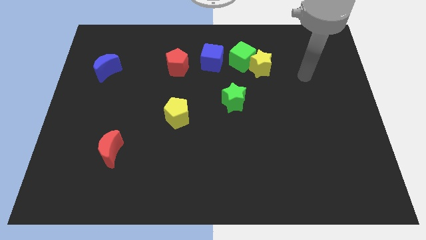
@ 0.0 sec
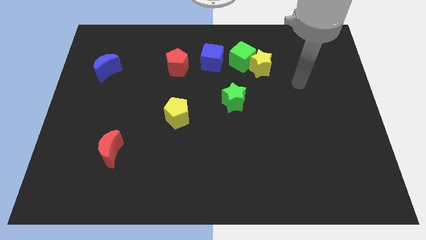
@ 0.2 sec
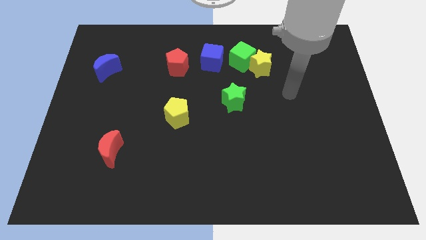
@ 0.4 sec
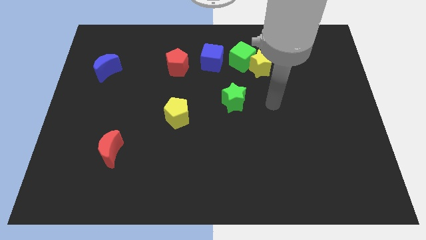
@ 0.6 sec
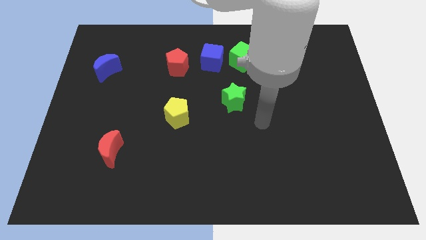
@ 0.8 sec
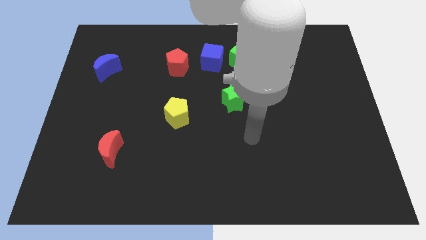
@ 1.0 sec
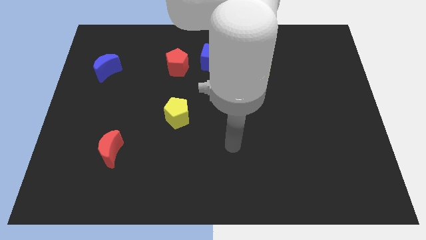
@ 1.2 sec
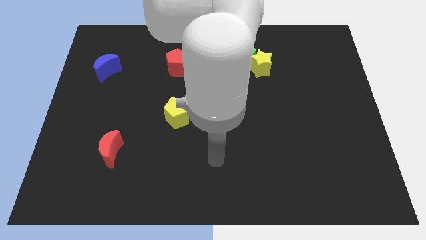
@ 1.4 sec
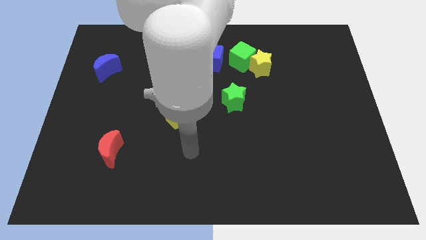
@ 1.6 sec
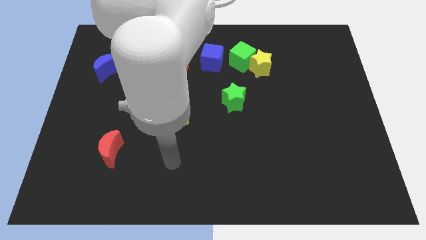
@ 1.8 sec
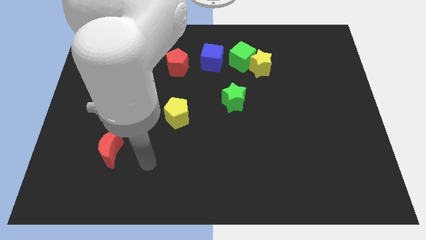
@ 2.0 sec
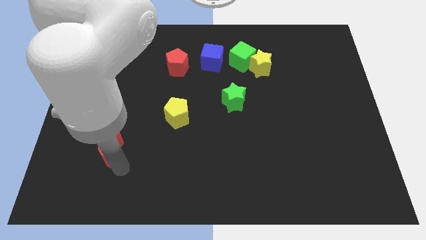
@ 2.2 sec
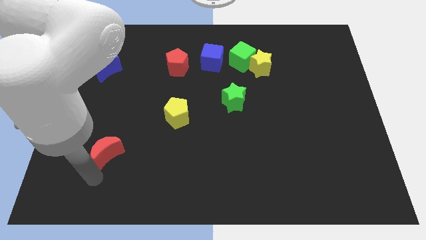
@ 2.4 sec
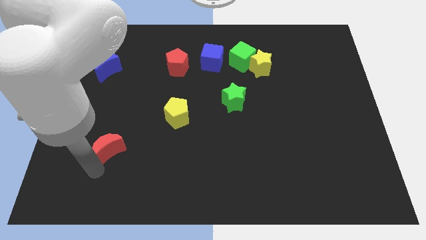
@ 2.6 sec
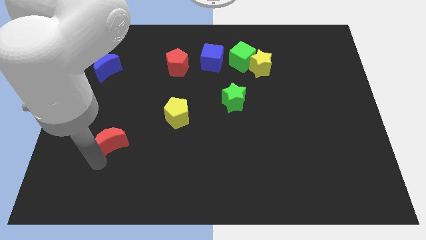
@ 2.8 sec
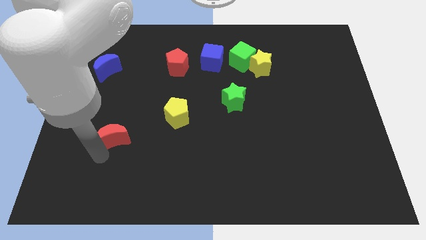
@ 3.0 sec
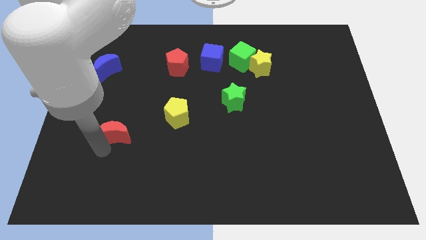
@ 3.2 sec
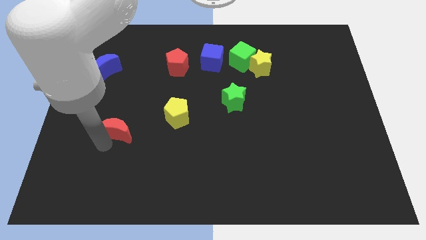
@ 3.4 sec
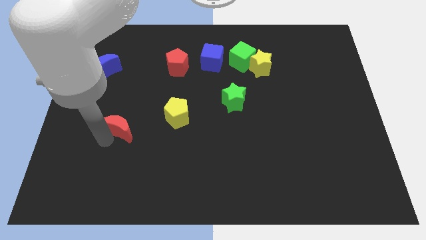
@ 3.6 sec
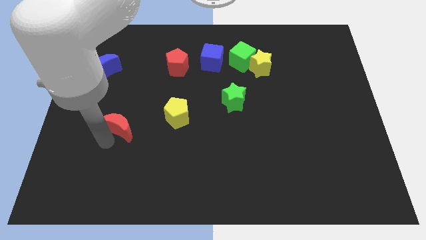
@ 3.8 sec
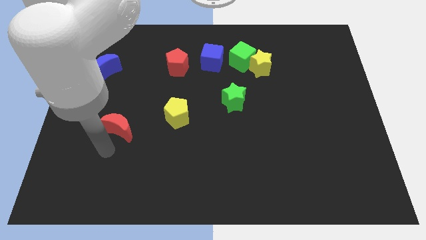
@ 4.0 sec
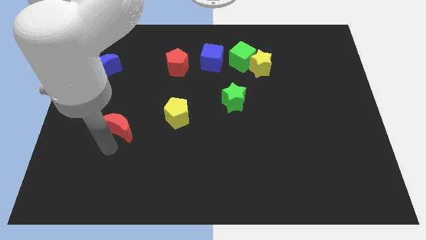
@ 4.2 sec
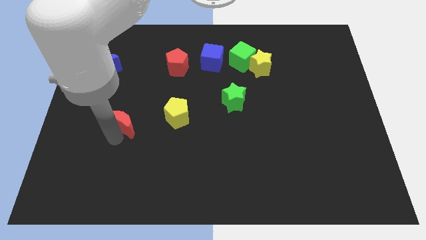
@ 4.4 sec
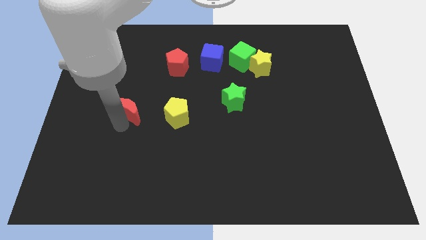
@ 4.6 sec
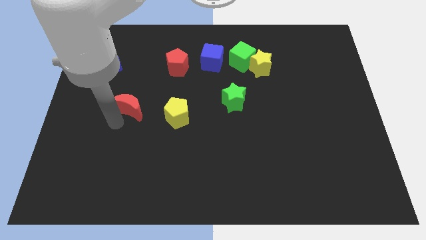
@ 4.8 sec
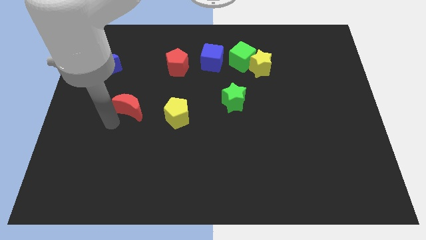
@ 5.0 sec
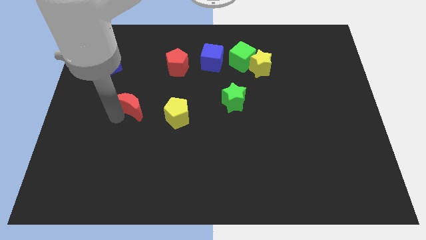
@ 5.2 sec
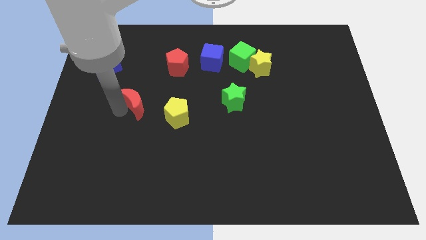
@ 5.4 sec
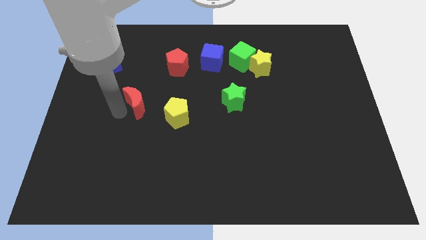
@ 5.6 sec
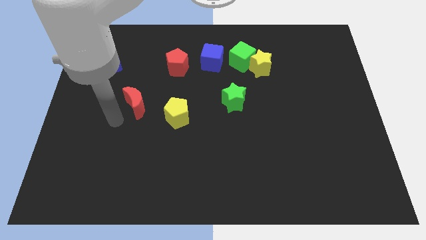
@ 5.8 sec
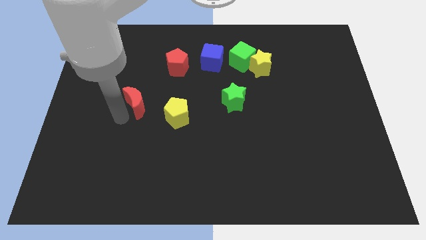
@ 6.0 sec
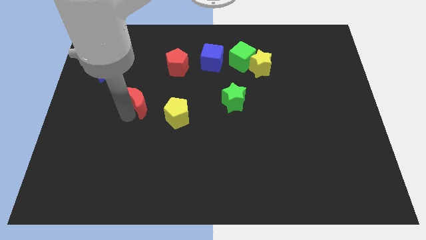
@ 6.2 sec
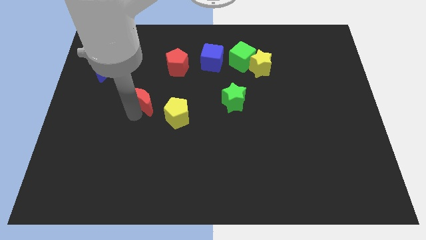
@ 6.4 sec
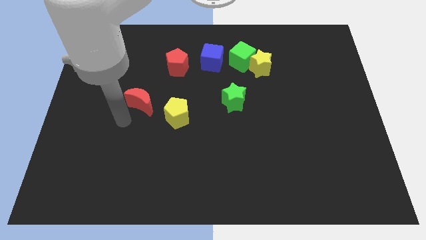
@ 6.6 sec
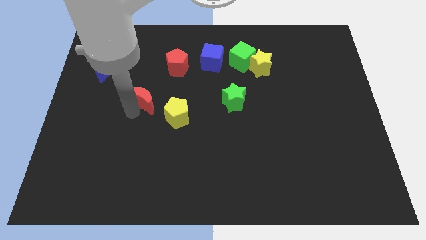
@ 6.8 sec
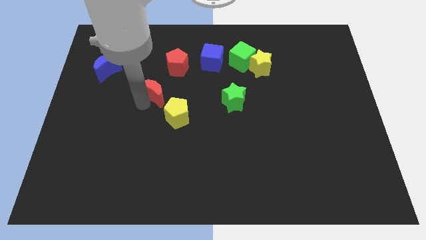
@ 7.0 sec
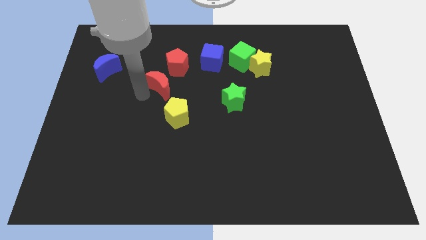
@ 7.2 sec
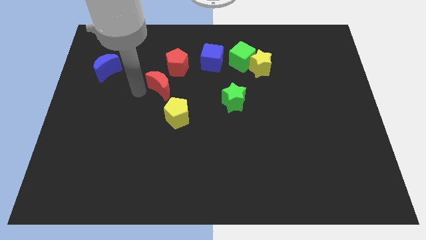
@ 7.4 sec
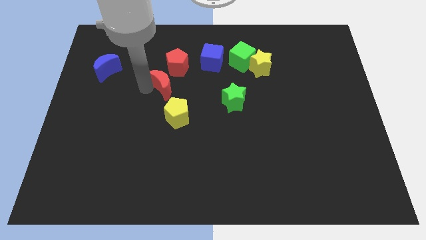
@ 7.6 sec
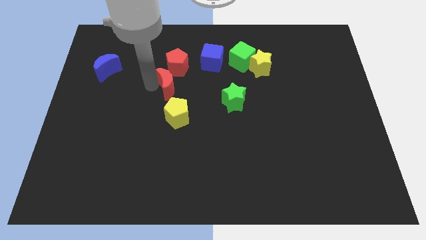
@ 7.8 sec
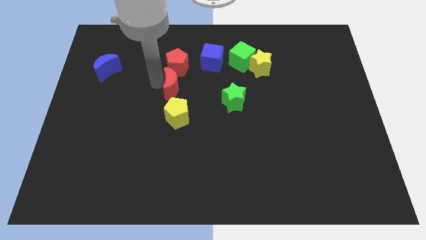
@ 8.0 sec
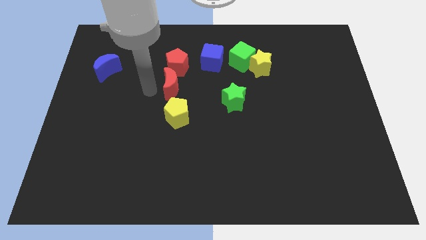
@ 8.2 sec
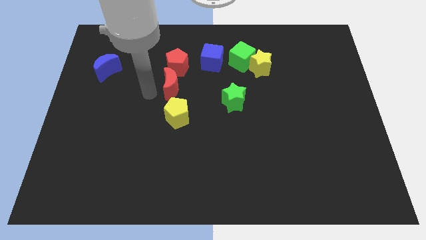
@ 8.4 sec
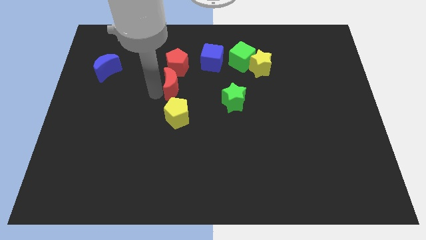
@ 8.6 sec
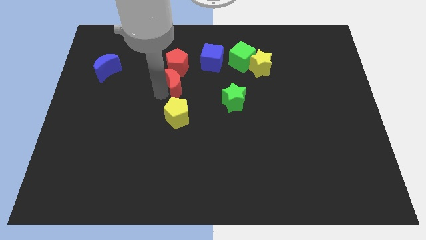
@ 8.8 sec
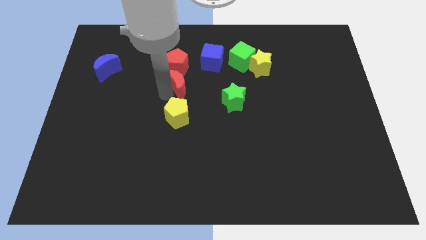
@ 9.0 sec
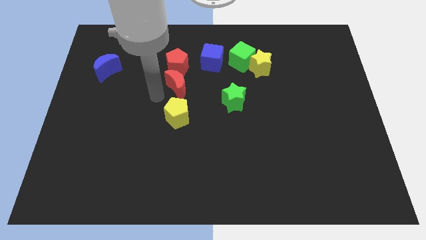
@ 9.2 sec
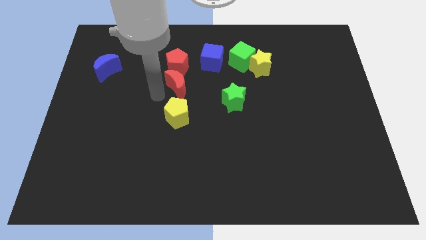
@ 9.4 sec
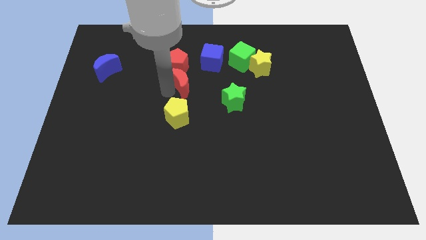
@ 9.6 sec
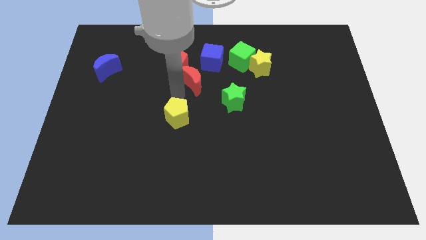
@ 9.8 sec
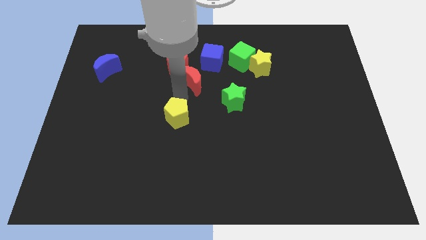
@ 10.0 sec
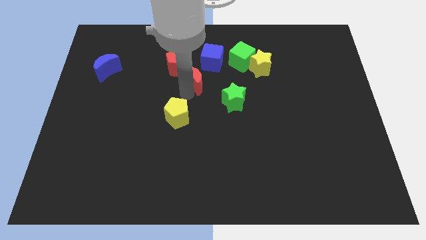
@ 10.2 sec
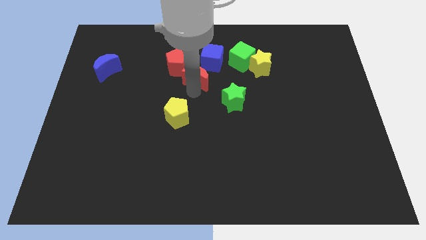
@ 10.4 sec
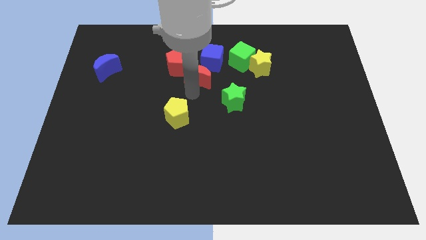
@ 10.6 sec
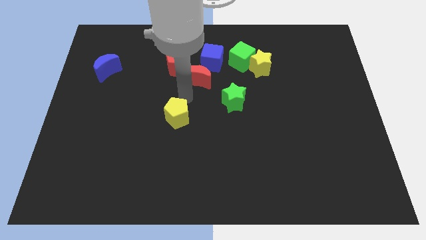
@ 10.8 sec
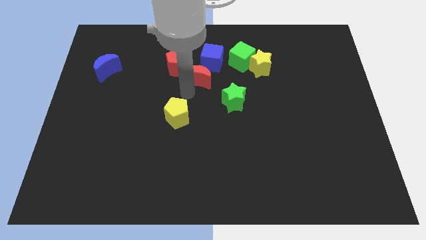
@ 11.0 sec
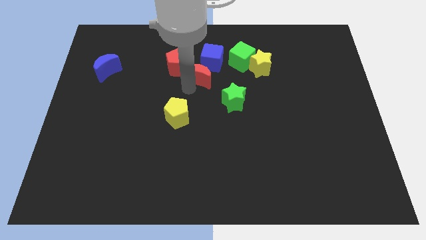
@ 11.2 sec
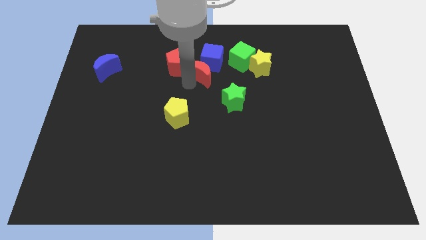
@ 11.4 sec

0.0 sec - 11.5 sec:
slide the red moon towards the blue cube

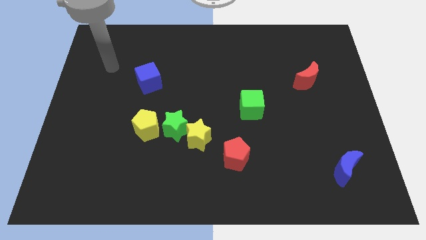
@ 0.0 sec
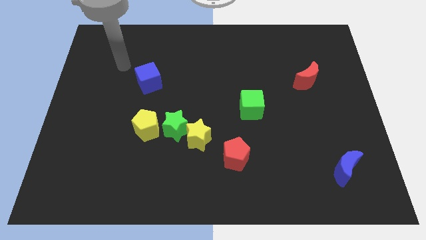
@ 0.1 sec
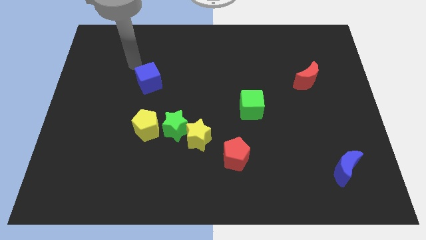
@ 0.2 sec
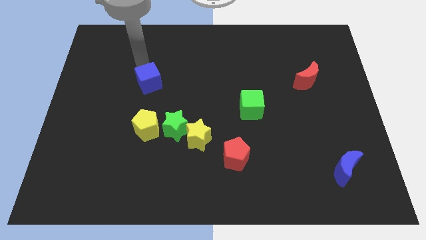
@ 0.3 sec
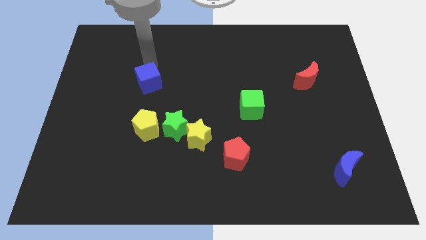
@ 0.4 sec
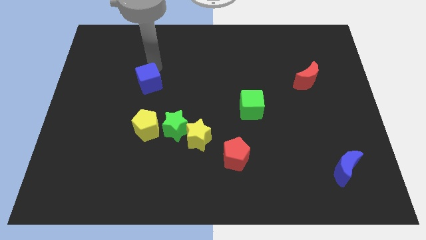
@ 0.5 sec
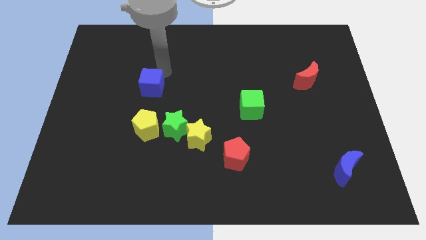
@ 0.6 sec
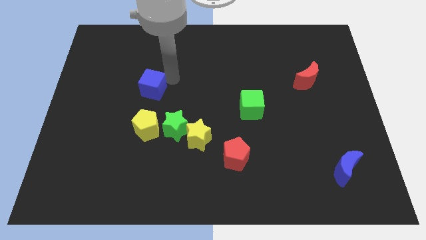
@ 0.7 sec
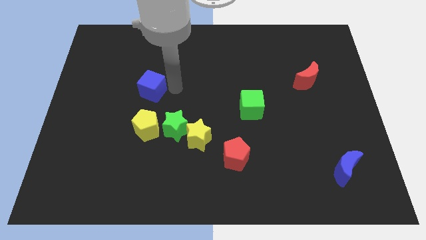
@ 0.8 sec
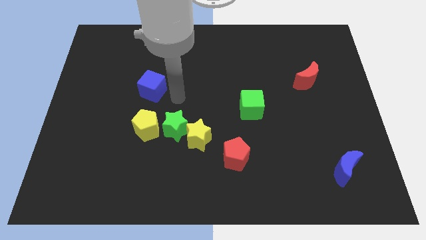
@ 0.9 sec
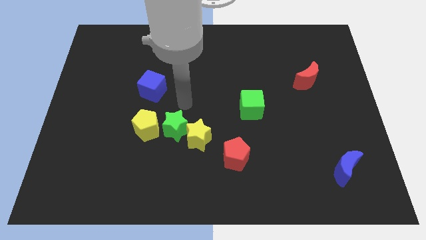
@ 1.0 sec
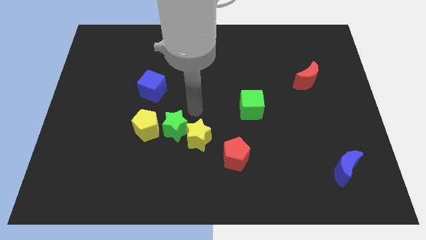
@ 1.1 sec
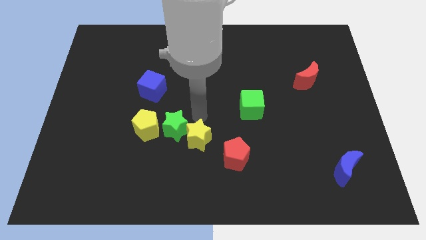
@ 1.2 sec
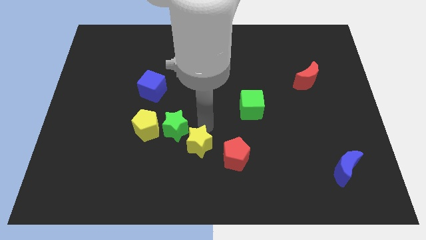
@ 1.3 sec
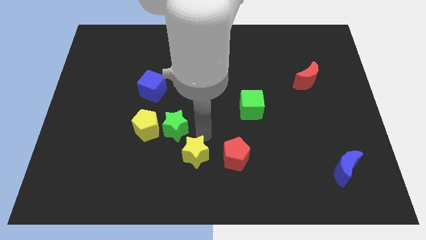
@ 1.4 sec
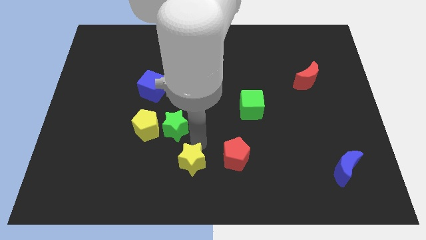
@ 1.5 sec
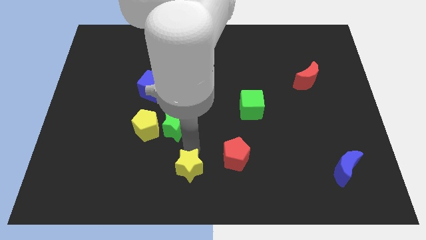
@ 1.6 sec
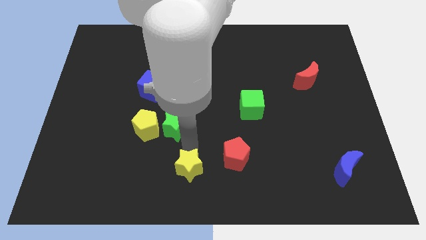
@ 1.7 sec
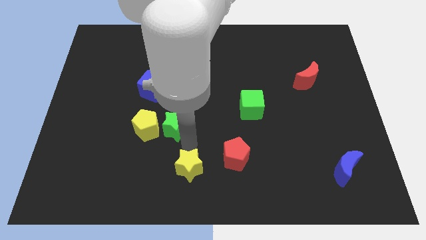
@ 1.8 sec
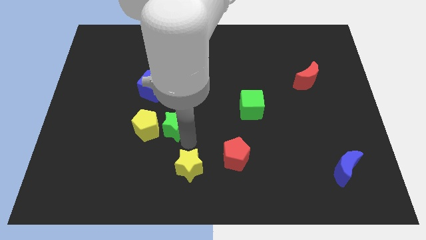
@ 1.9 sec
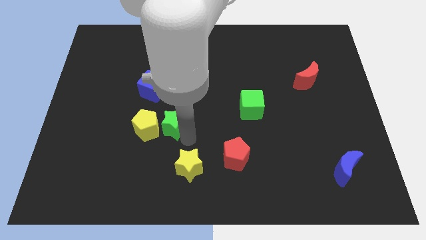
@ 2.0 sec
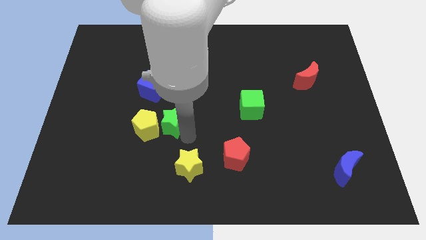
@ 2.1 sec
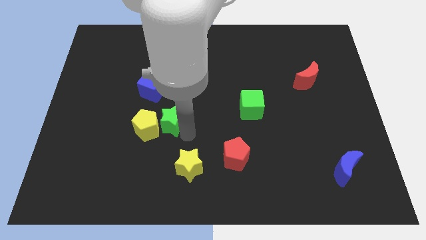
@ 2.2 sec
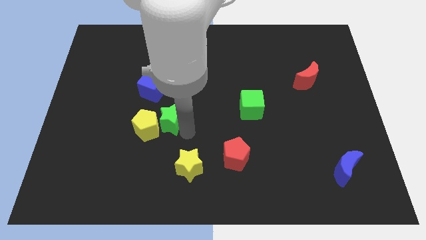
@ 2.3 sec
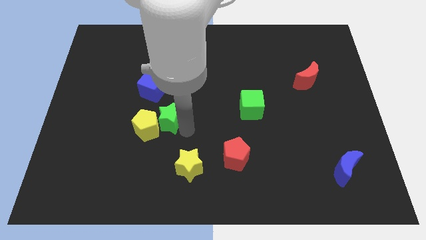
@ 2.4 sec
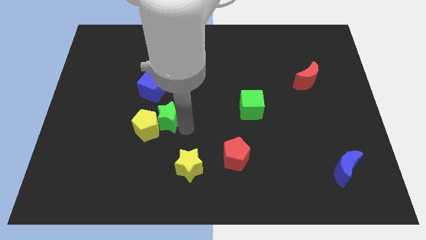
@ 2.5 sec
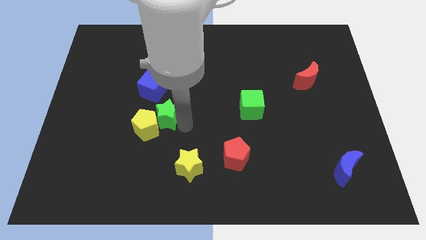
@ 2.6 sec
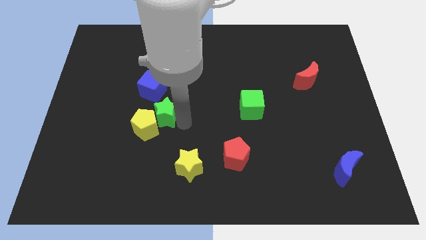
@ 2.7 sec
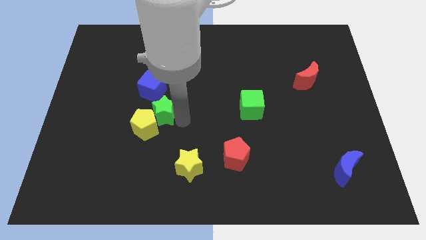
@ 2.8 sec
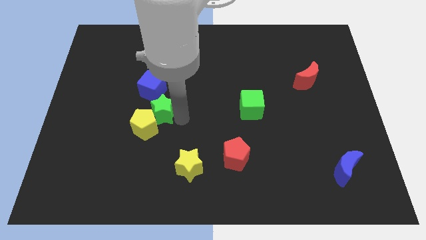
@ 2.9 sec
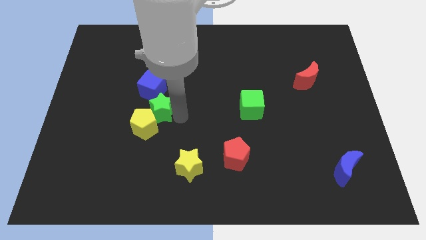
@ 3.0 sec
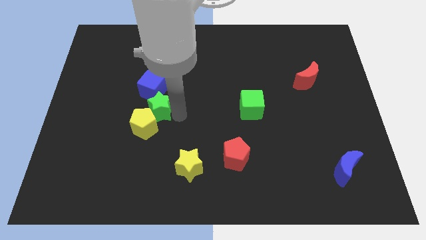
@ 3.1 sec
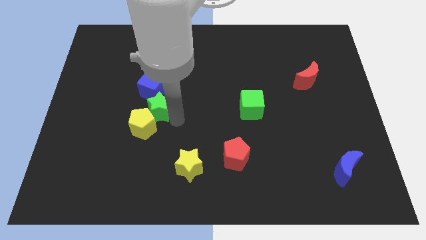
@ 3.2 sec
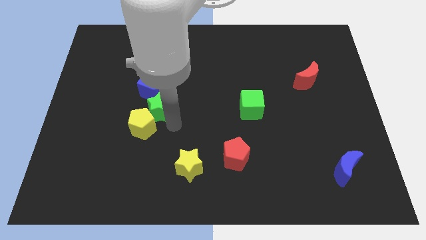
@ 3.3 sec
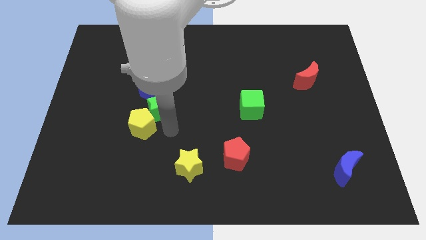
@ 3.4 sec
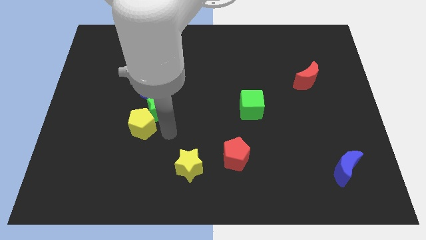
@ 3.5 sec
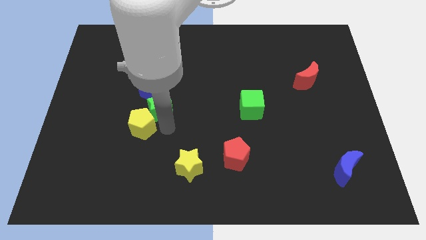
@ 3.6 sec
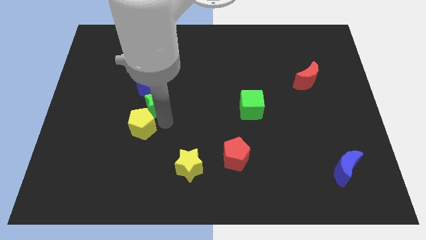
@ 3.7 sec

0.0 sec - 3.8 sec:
move the green star close to the blue cube
